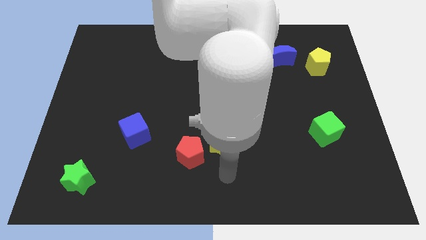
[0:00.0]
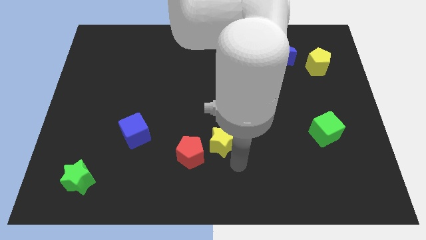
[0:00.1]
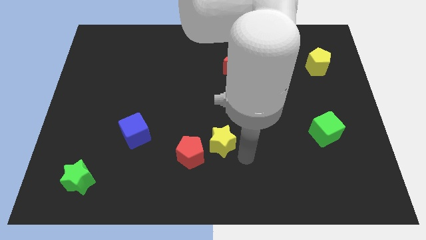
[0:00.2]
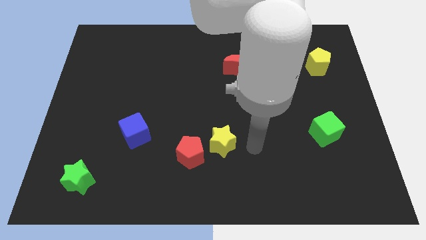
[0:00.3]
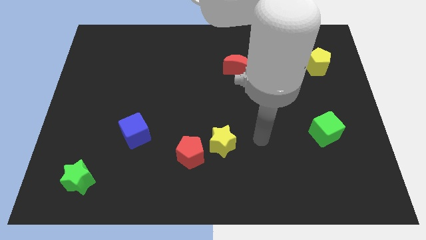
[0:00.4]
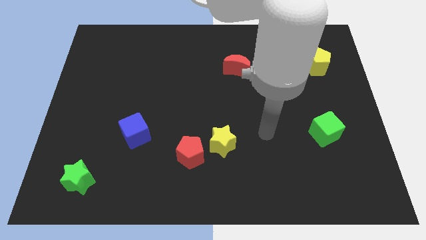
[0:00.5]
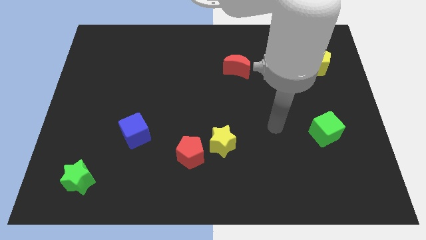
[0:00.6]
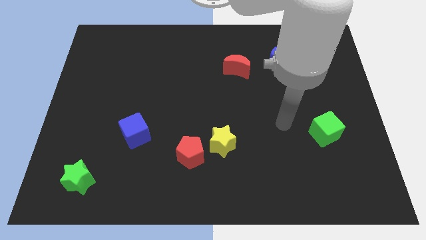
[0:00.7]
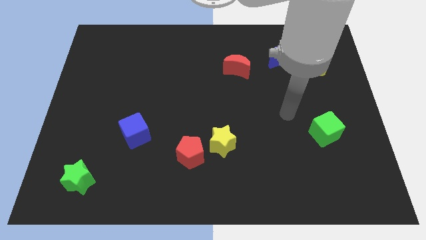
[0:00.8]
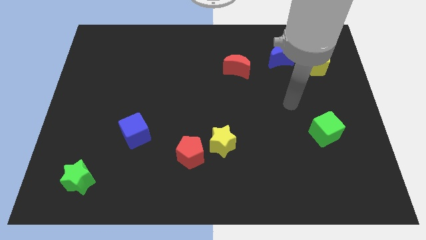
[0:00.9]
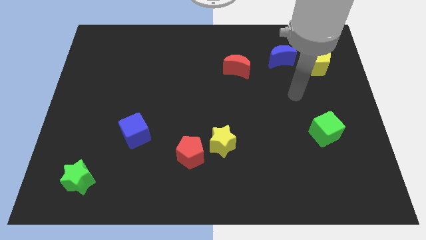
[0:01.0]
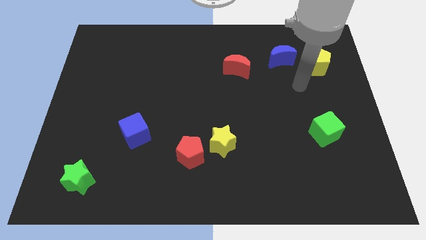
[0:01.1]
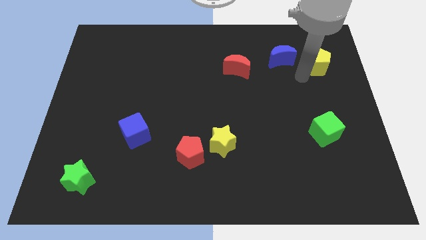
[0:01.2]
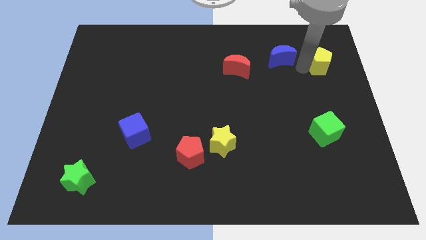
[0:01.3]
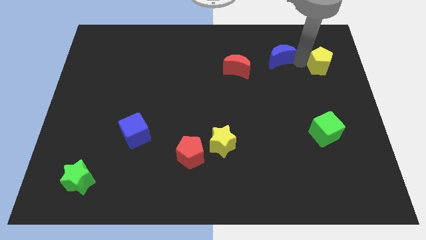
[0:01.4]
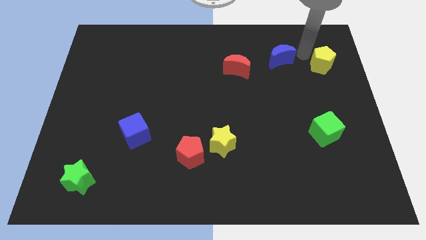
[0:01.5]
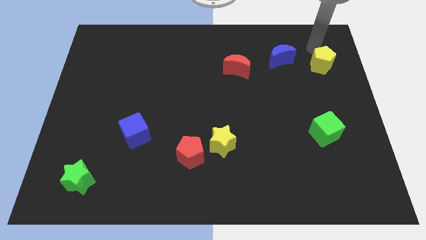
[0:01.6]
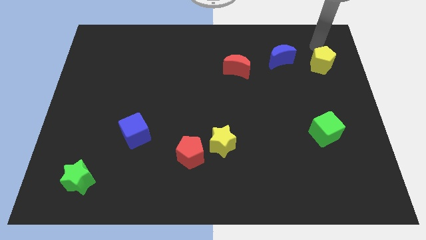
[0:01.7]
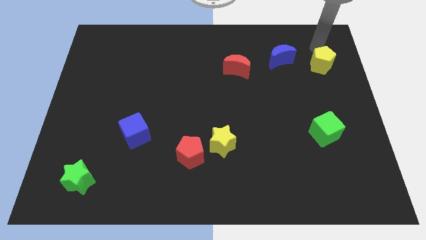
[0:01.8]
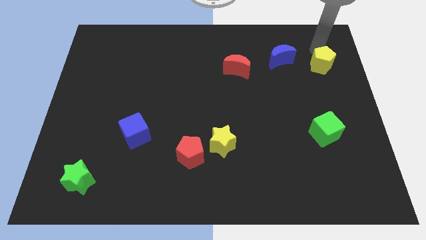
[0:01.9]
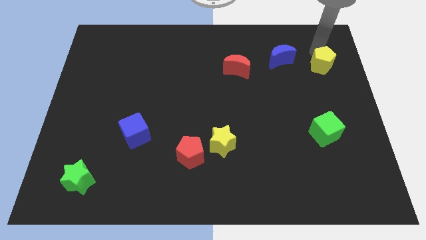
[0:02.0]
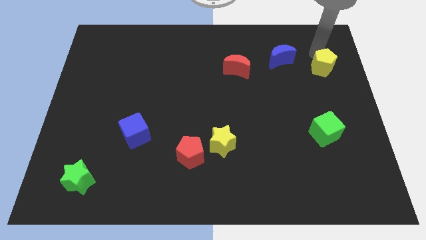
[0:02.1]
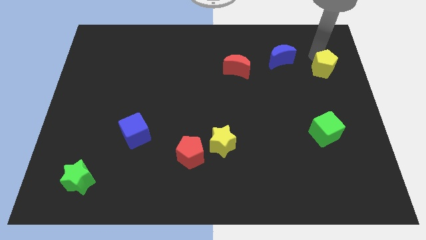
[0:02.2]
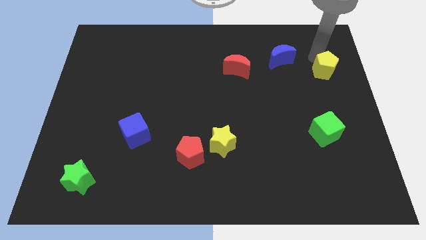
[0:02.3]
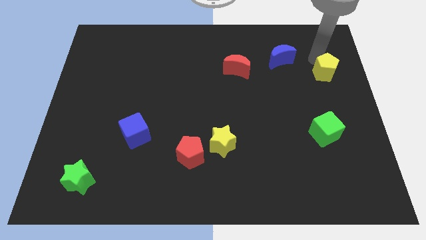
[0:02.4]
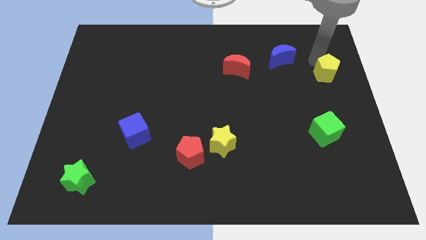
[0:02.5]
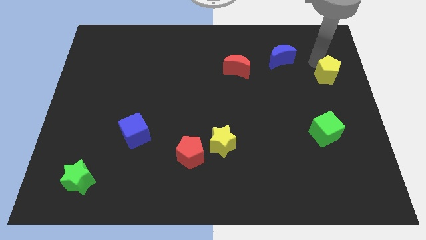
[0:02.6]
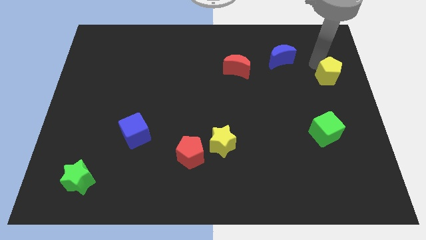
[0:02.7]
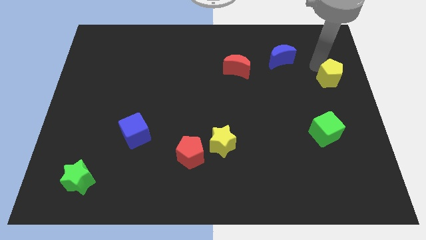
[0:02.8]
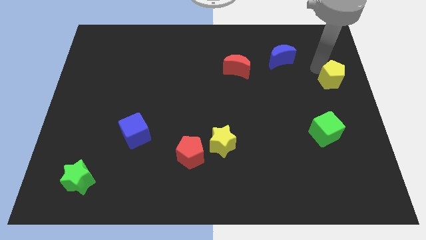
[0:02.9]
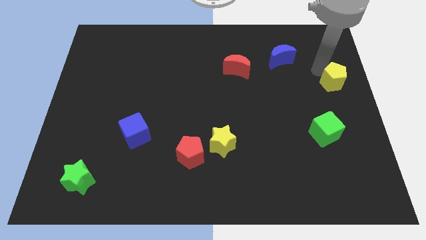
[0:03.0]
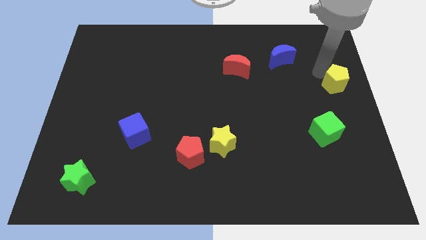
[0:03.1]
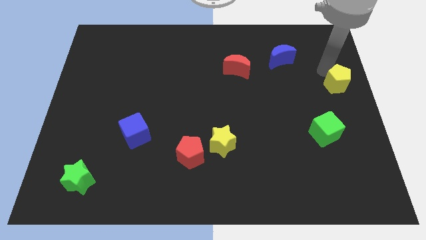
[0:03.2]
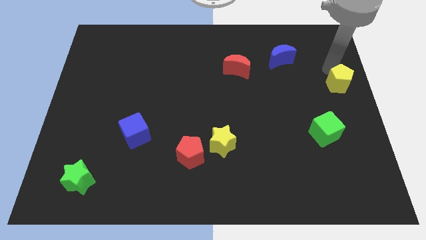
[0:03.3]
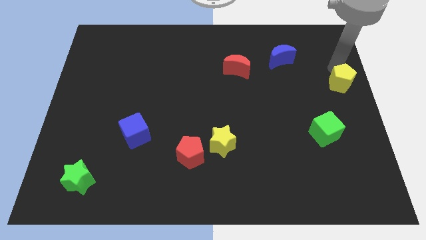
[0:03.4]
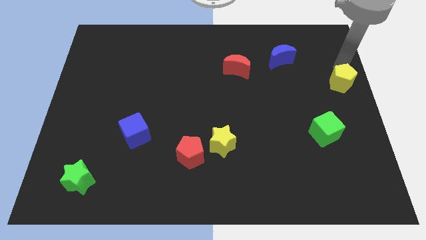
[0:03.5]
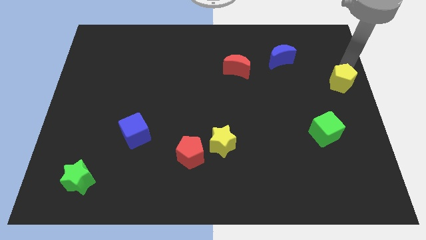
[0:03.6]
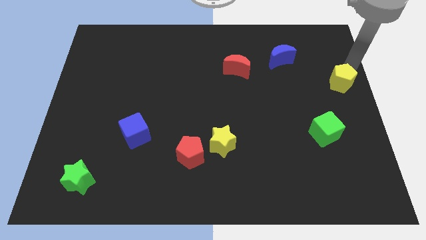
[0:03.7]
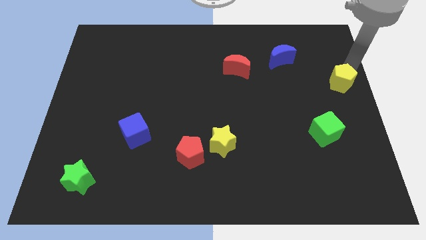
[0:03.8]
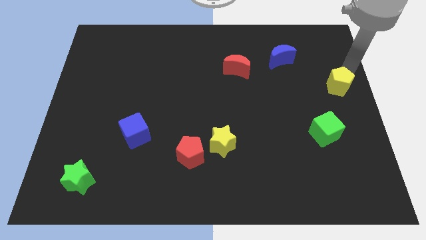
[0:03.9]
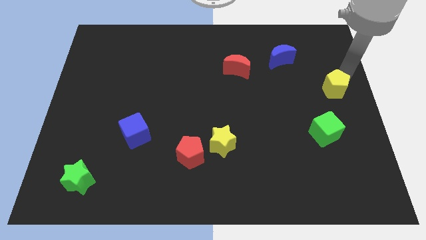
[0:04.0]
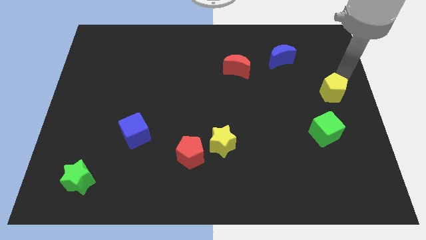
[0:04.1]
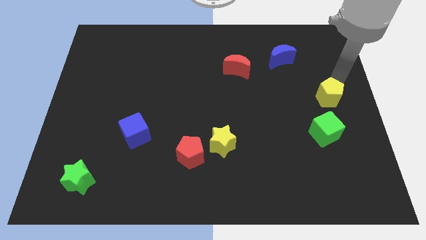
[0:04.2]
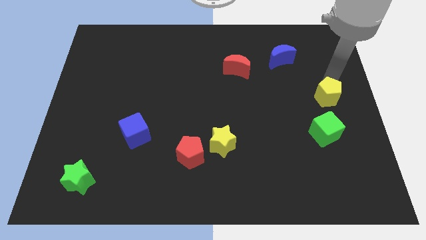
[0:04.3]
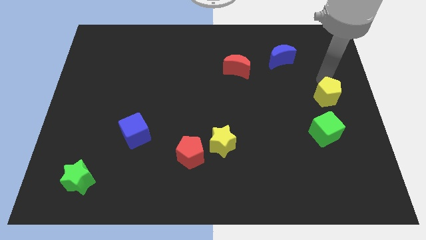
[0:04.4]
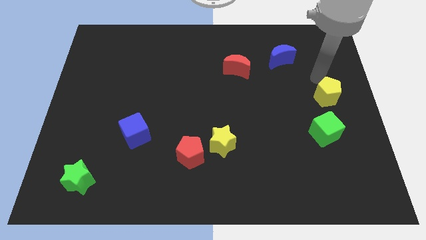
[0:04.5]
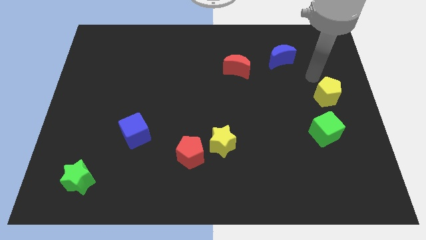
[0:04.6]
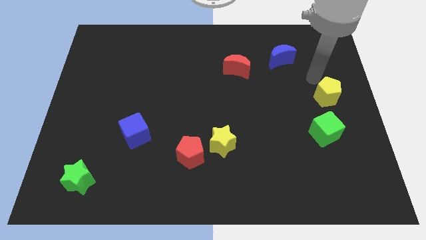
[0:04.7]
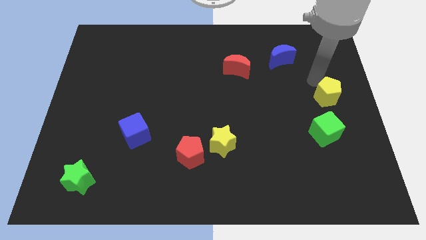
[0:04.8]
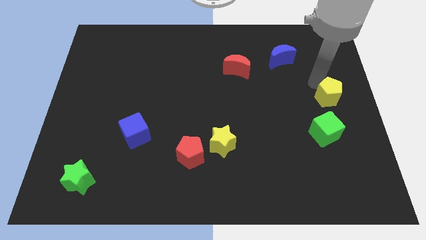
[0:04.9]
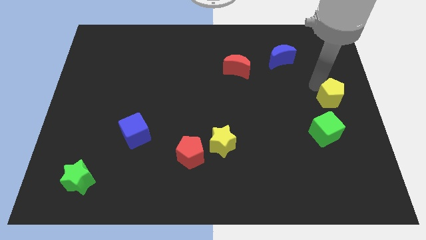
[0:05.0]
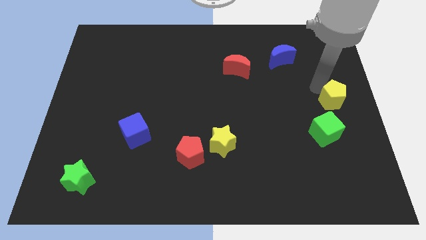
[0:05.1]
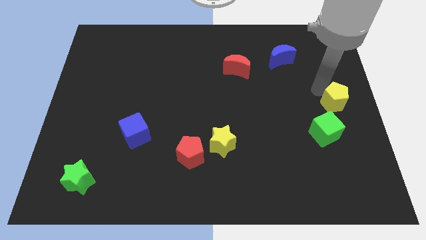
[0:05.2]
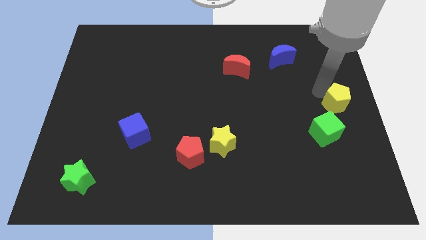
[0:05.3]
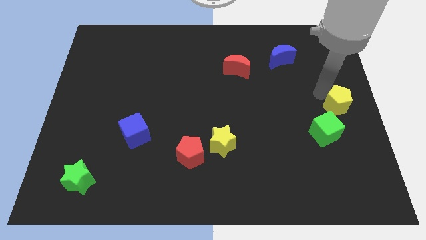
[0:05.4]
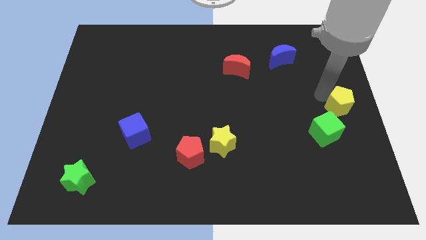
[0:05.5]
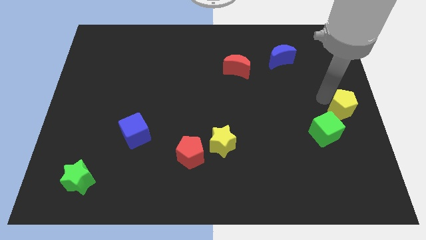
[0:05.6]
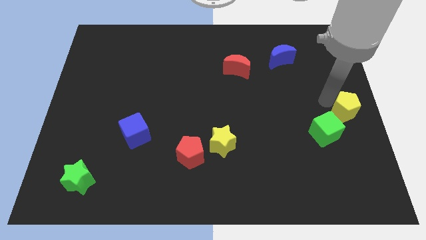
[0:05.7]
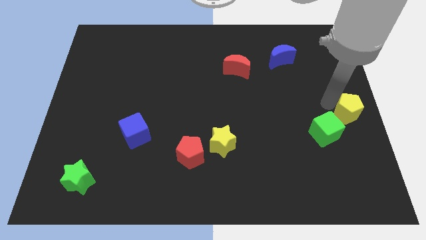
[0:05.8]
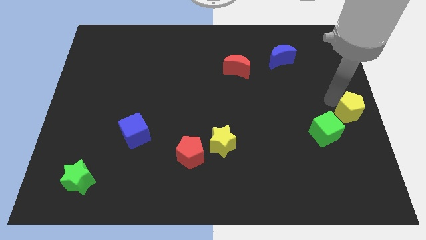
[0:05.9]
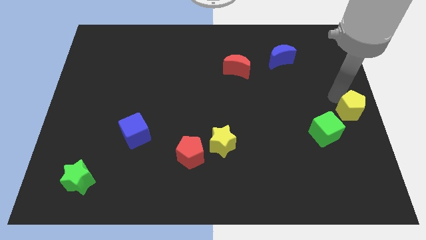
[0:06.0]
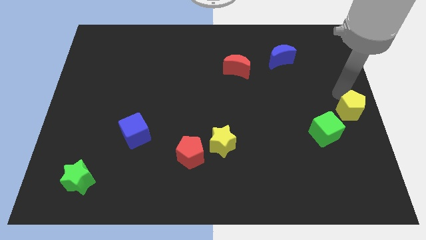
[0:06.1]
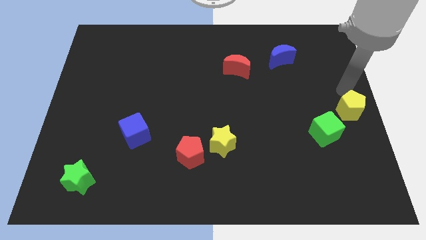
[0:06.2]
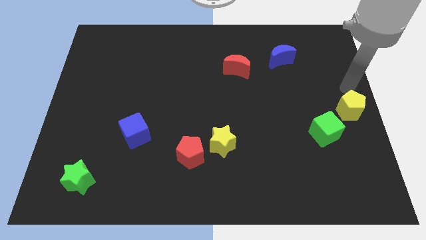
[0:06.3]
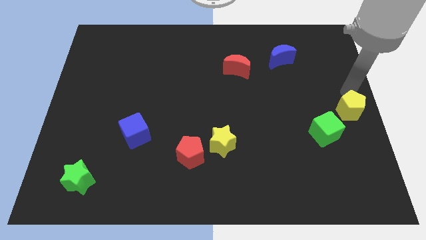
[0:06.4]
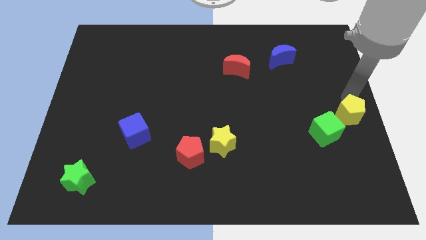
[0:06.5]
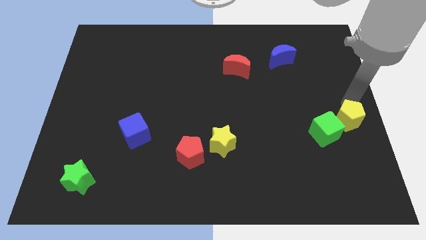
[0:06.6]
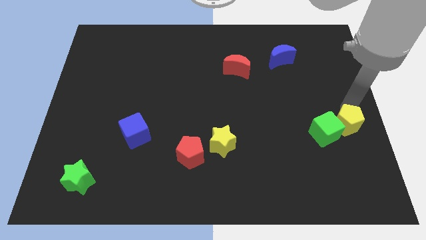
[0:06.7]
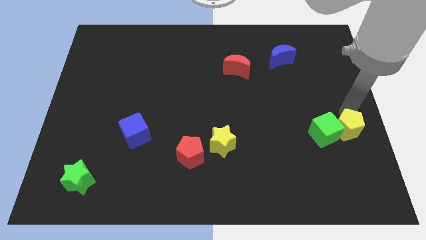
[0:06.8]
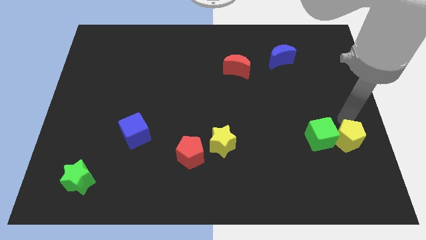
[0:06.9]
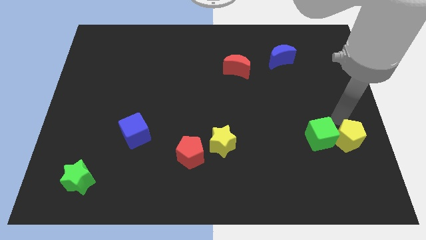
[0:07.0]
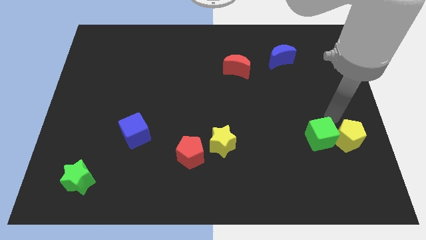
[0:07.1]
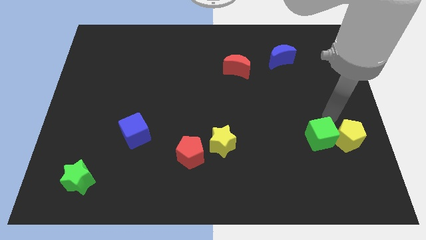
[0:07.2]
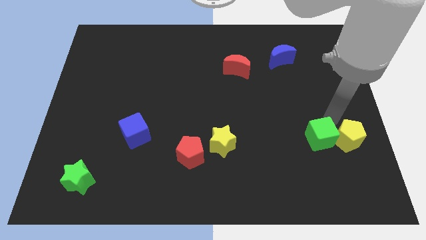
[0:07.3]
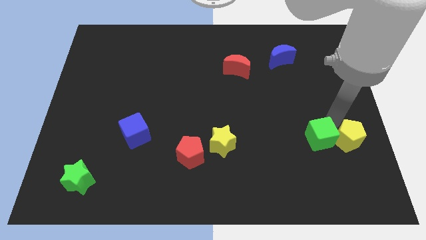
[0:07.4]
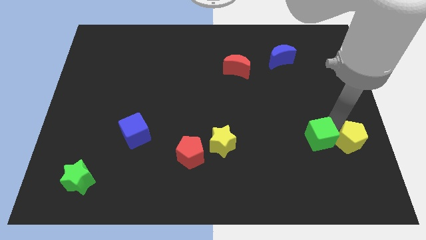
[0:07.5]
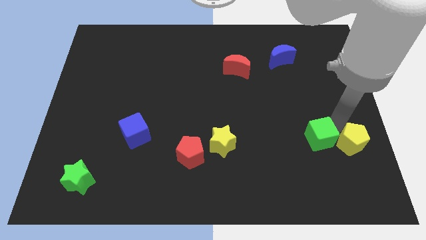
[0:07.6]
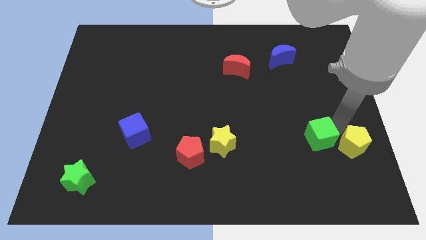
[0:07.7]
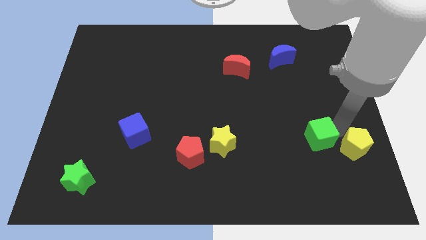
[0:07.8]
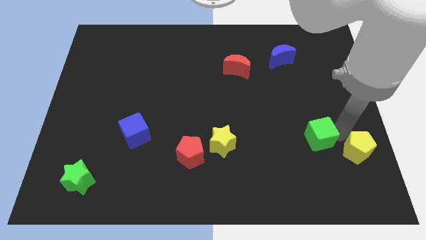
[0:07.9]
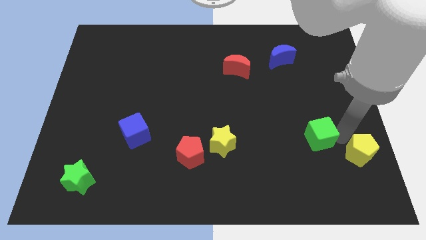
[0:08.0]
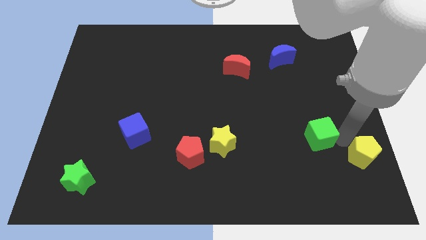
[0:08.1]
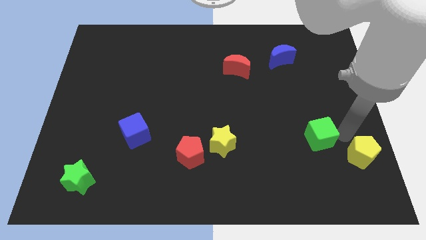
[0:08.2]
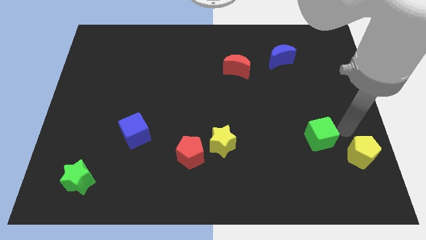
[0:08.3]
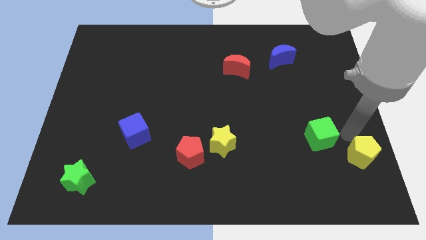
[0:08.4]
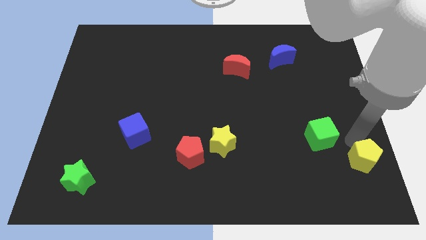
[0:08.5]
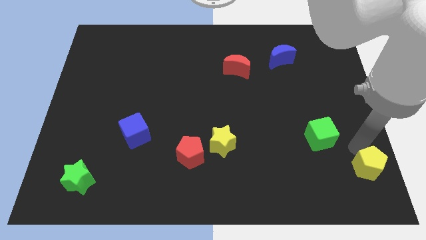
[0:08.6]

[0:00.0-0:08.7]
put the yellow pentagon to the bottom right of the board
